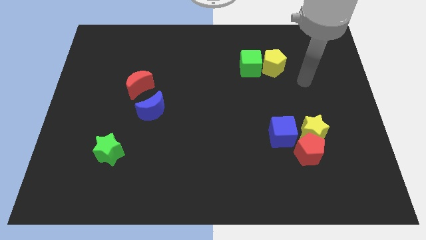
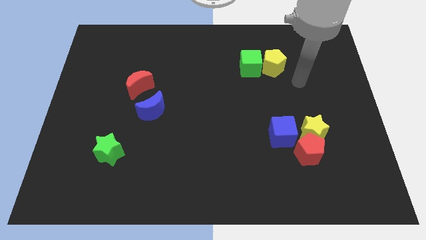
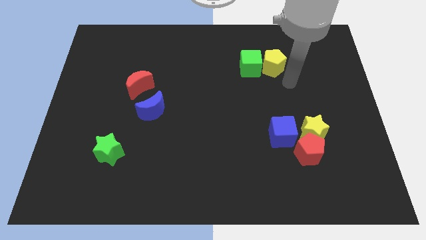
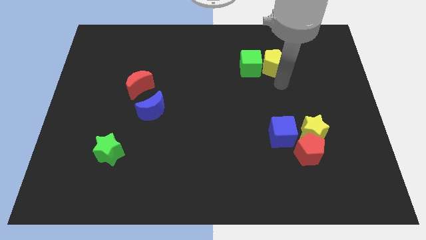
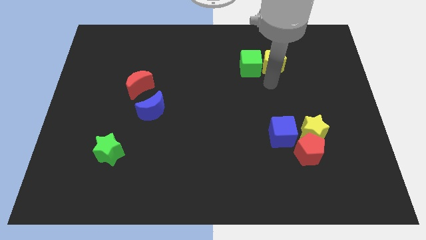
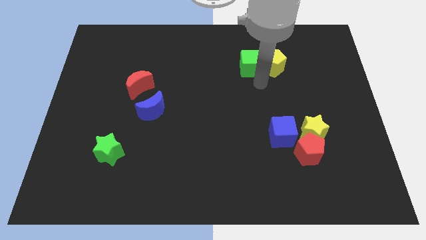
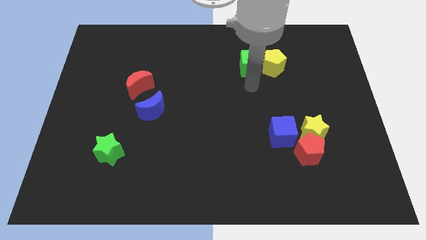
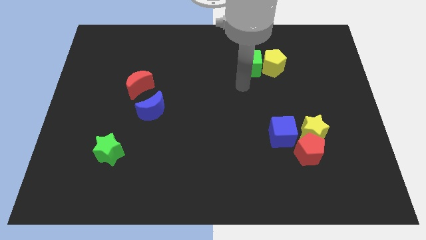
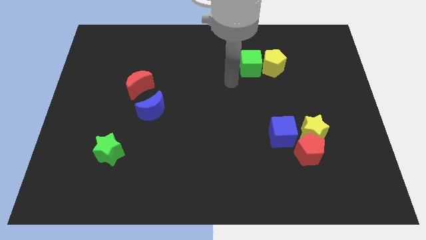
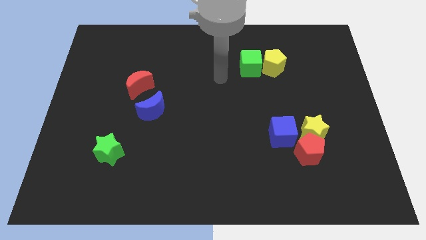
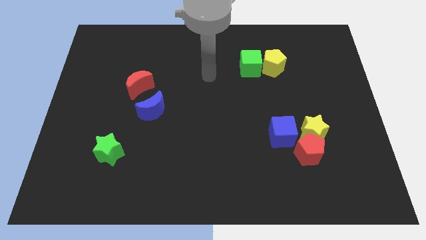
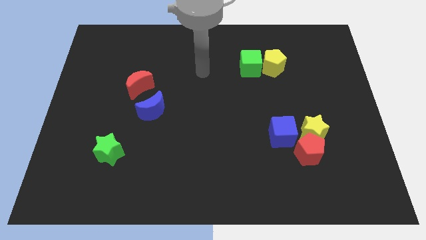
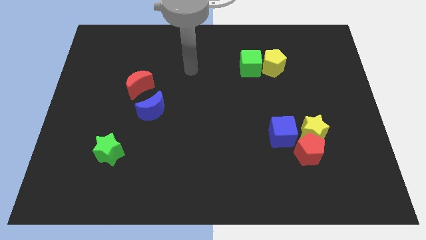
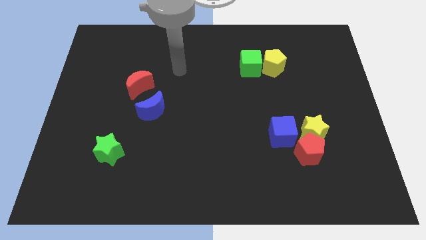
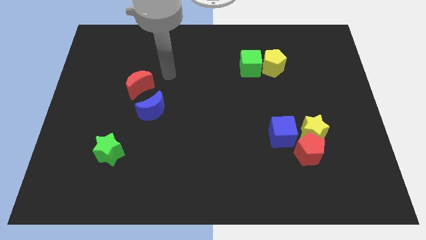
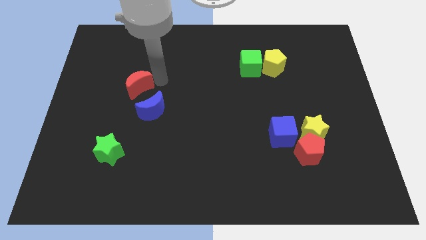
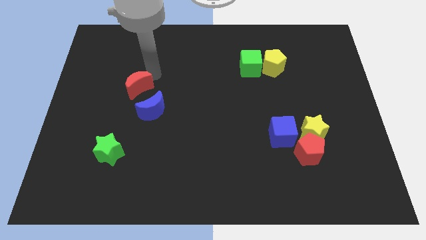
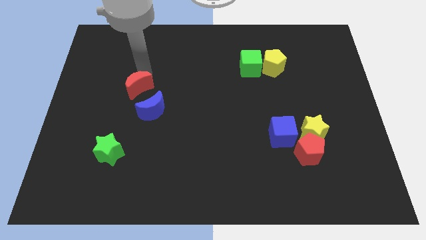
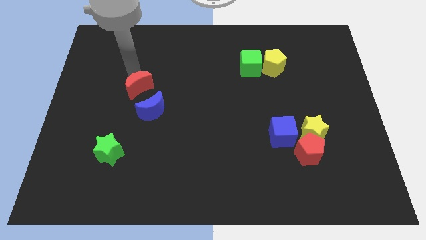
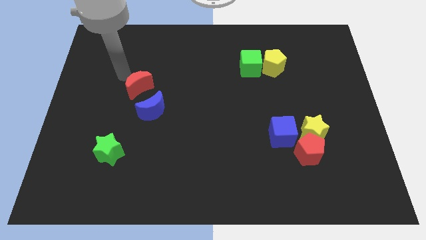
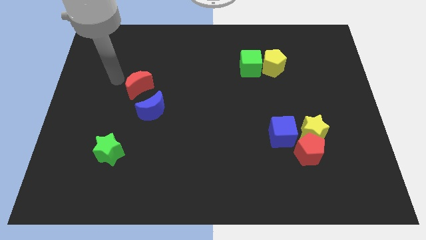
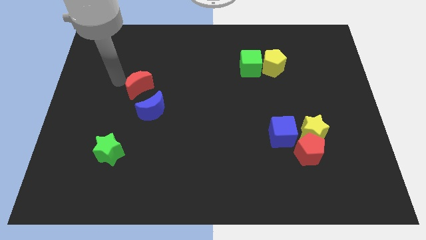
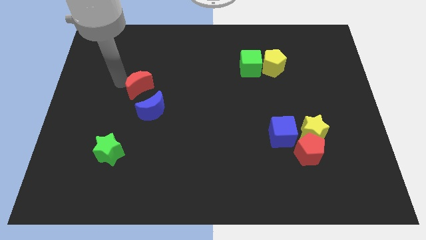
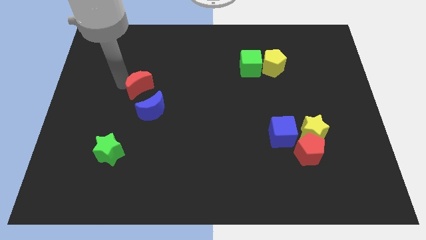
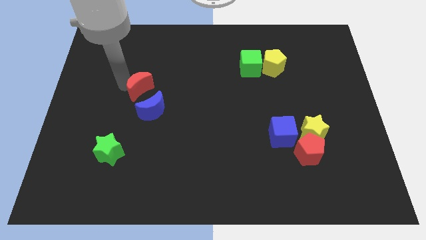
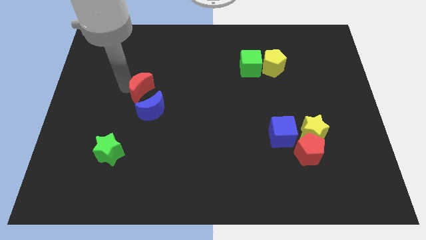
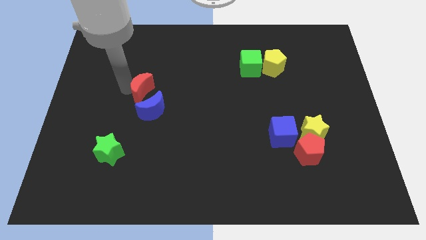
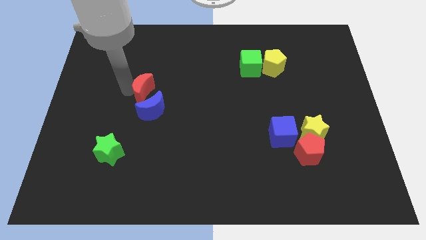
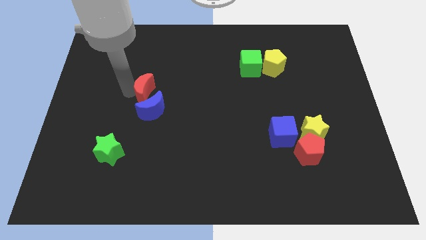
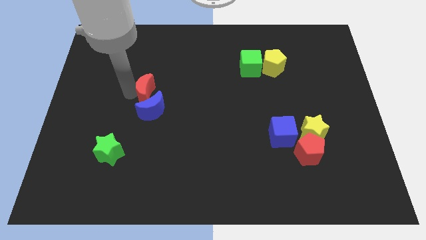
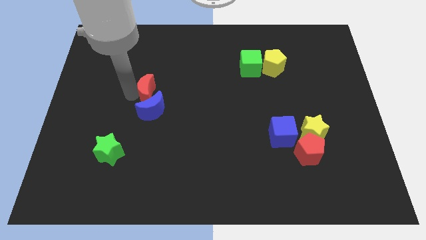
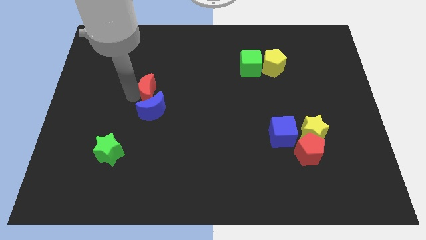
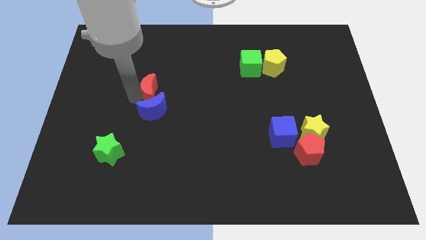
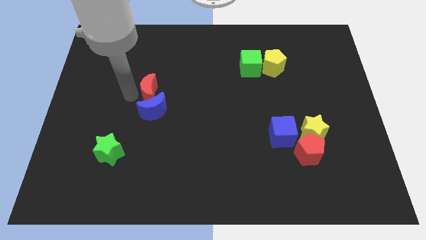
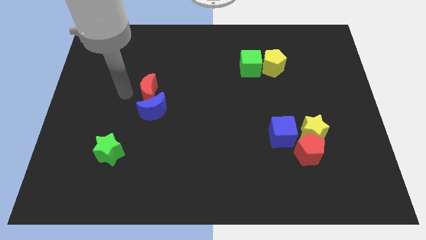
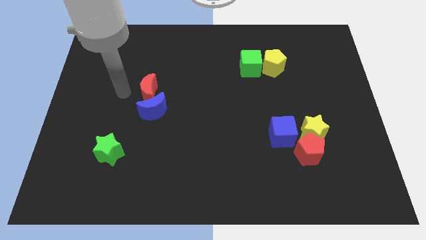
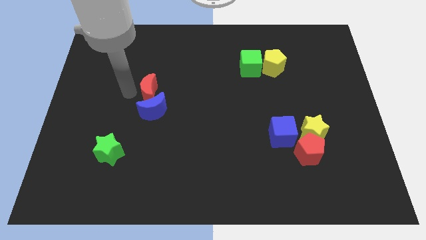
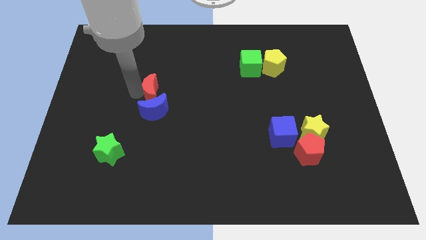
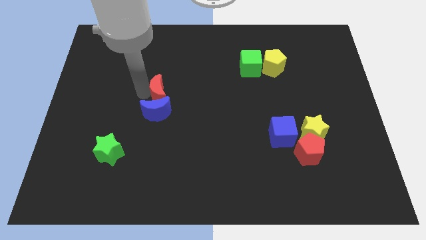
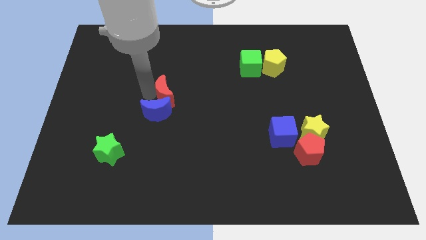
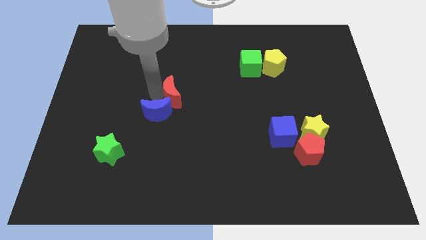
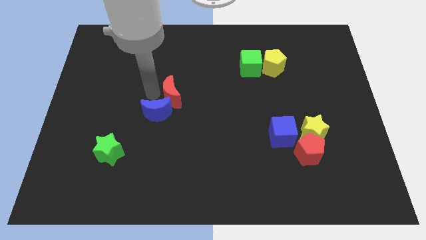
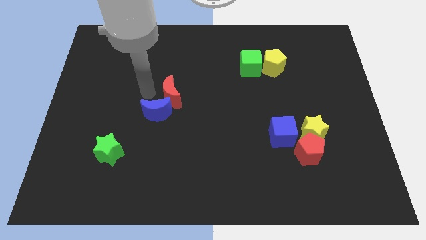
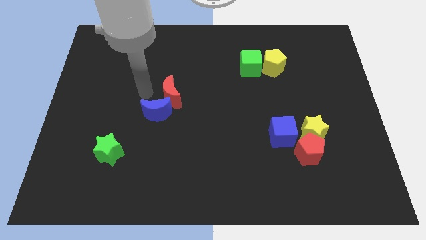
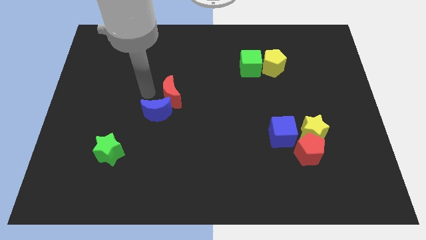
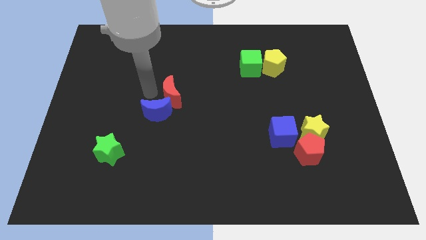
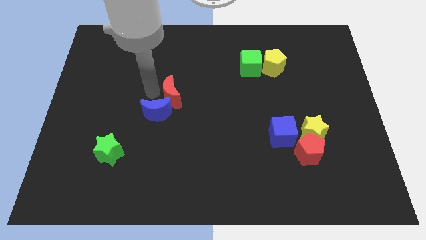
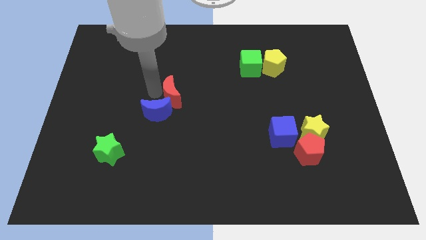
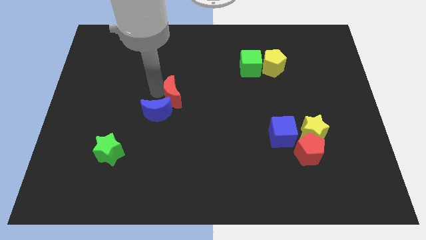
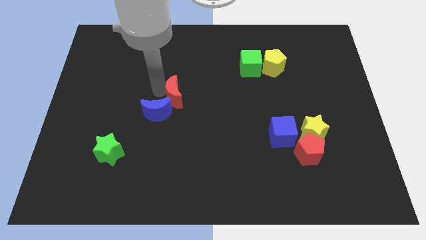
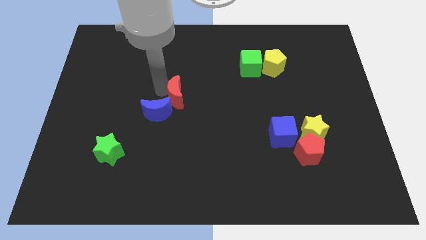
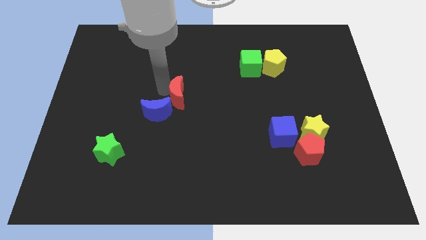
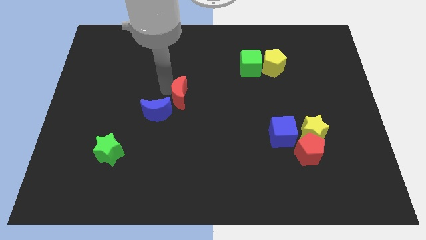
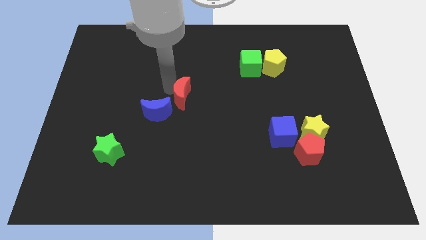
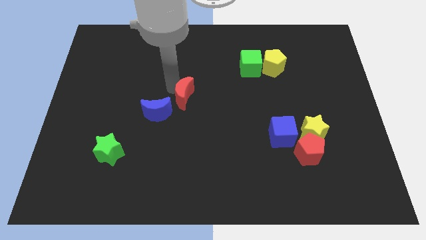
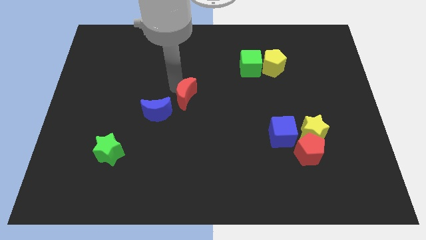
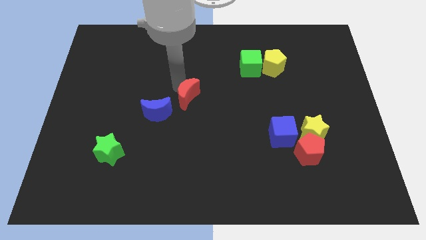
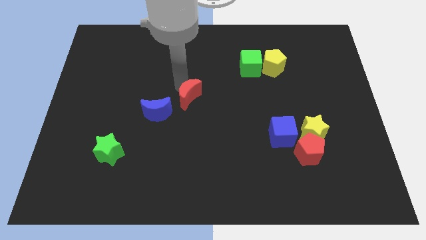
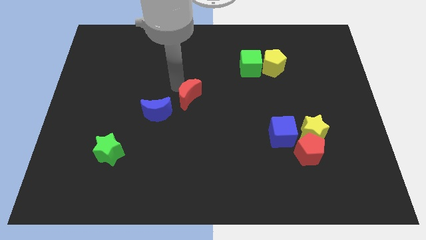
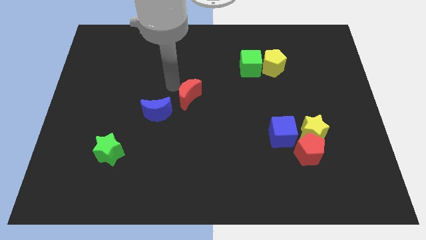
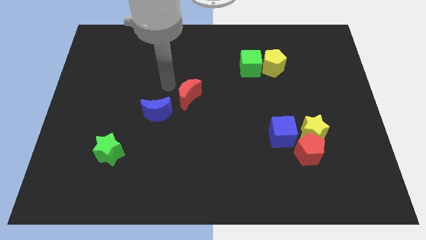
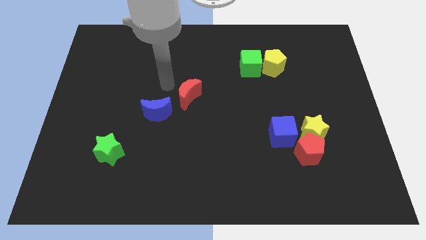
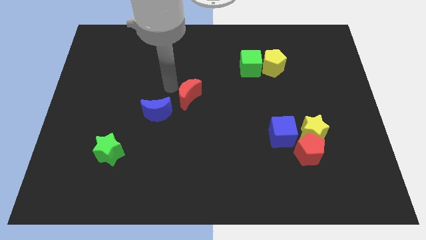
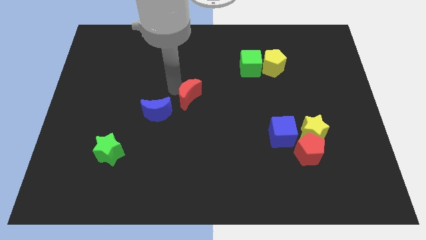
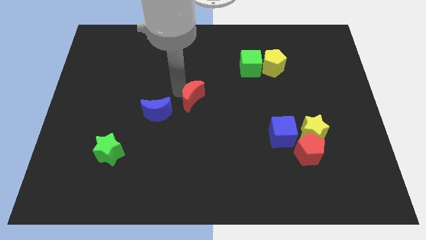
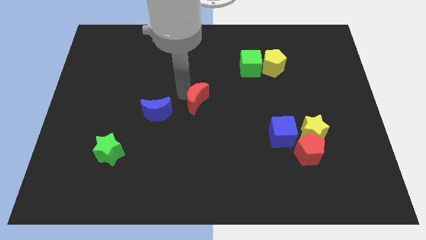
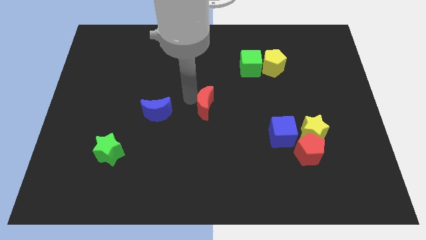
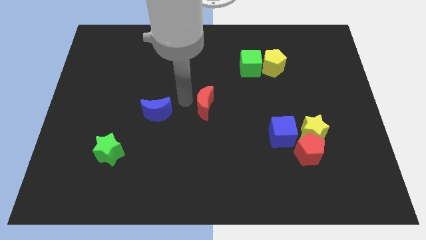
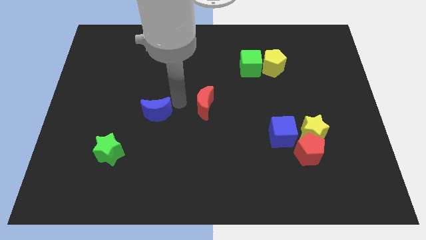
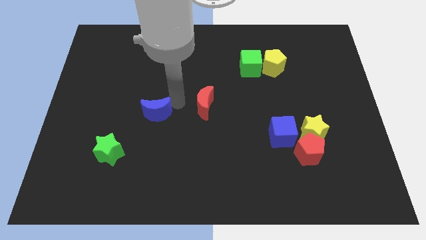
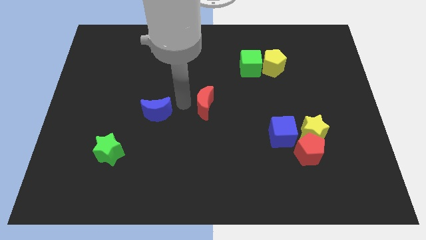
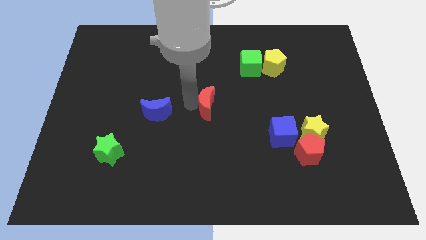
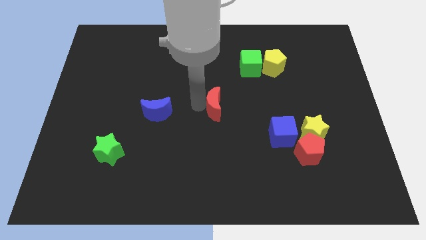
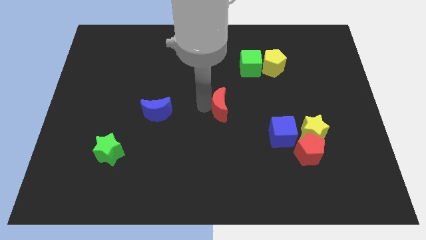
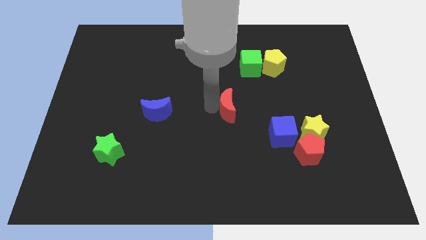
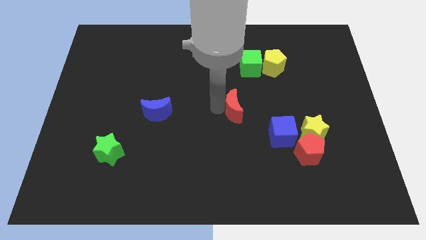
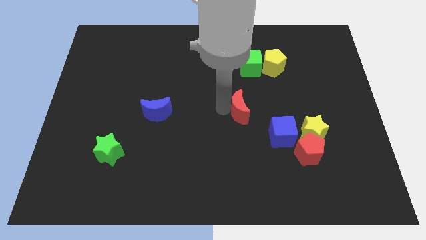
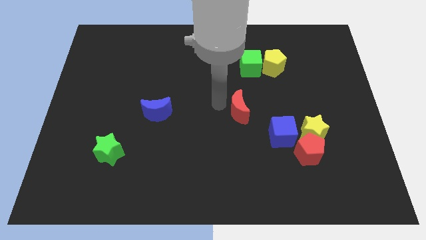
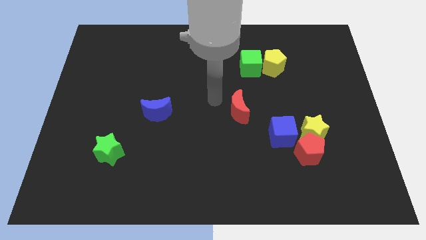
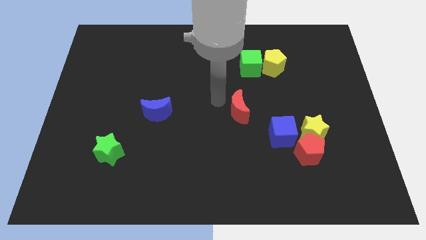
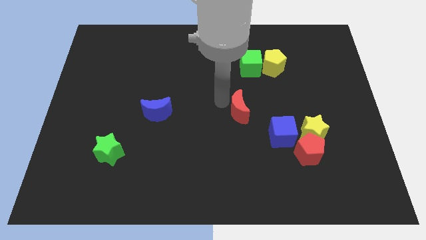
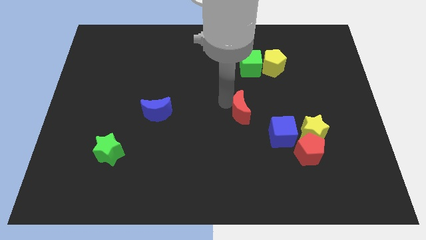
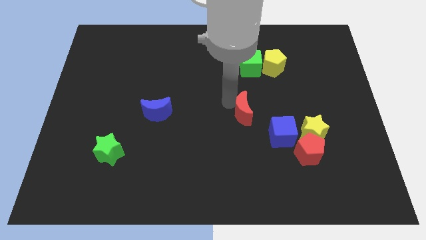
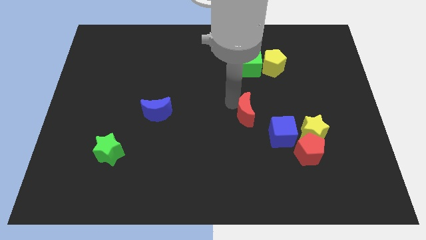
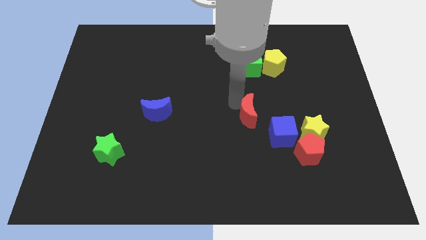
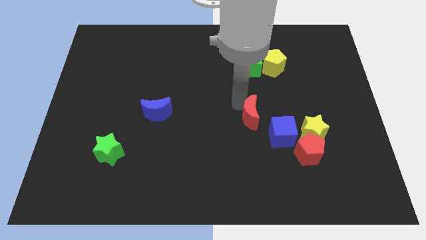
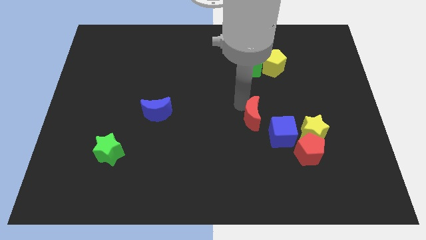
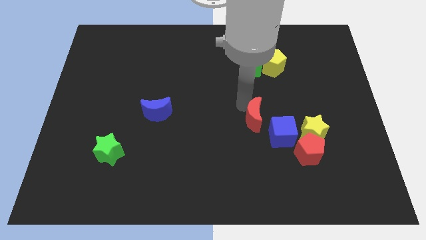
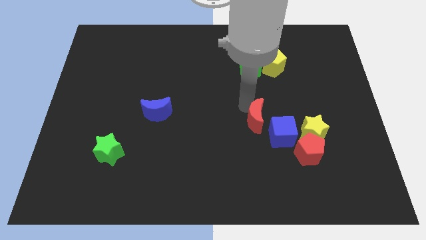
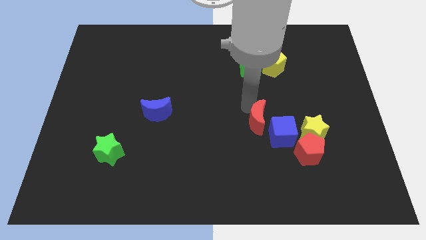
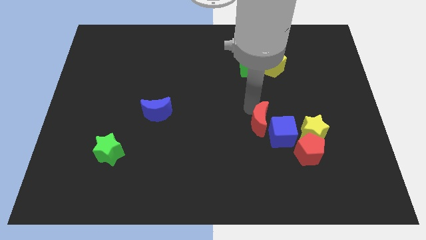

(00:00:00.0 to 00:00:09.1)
move the red moon close to the blue cube
